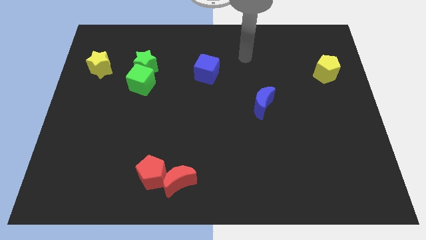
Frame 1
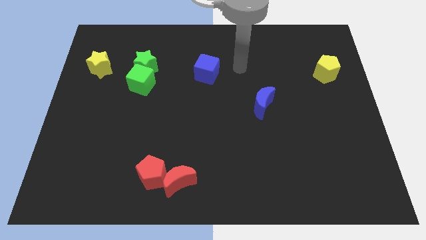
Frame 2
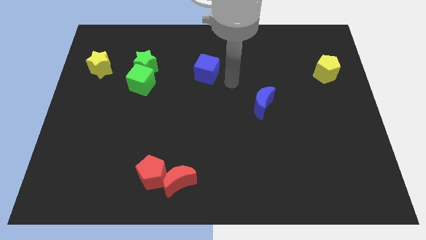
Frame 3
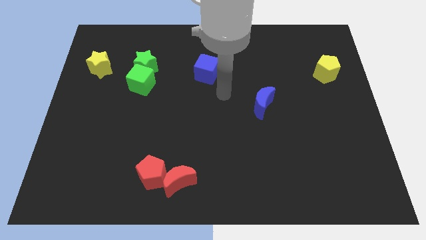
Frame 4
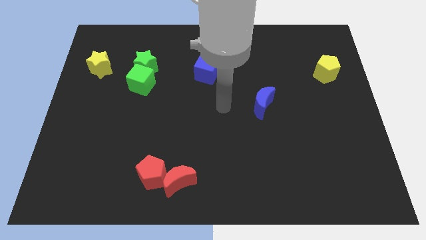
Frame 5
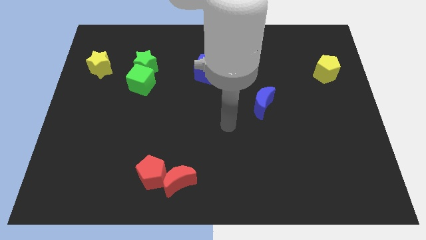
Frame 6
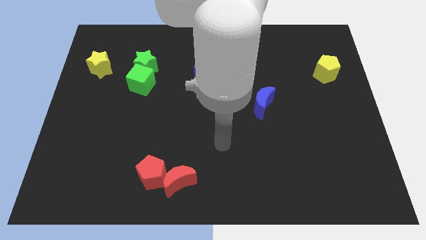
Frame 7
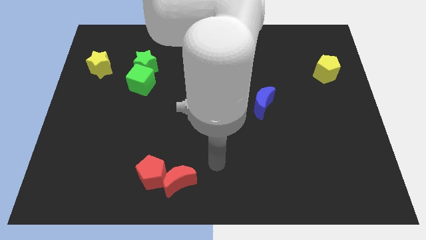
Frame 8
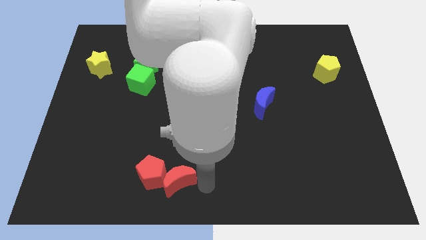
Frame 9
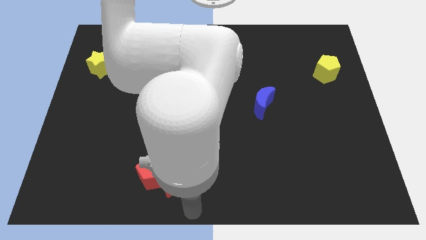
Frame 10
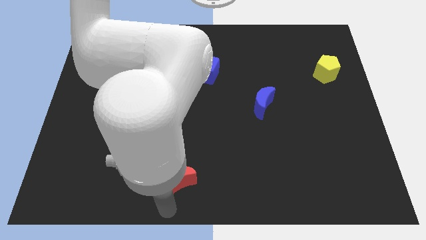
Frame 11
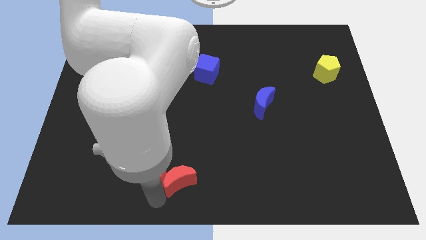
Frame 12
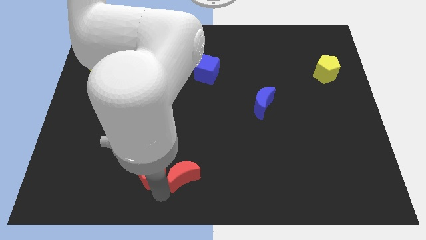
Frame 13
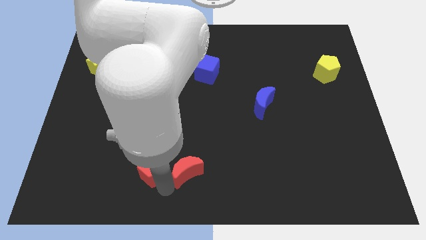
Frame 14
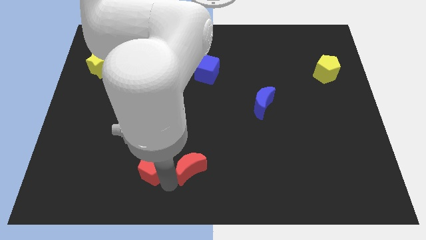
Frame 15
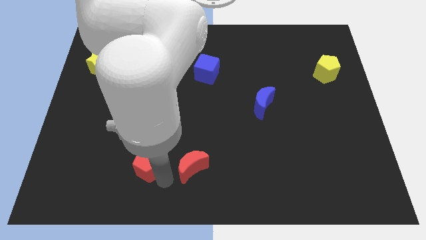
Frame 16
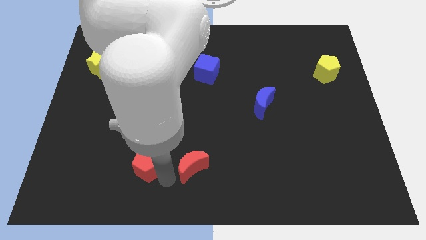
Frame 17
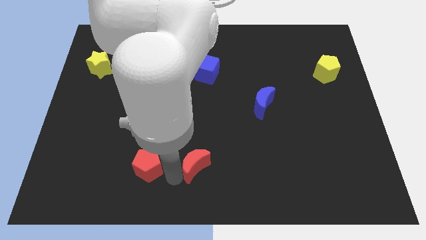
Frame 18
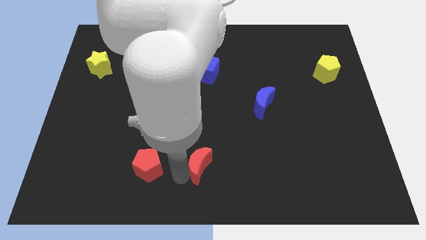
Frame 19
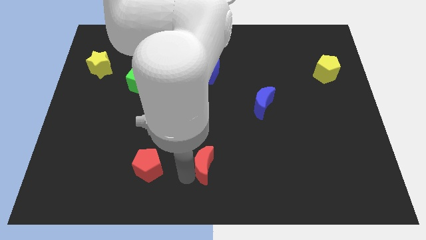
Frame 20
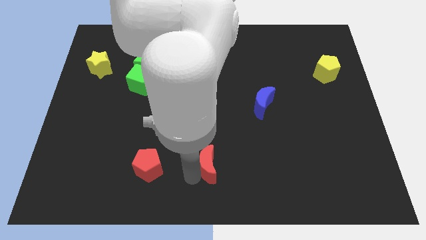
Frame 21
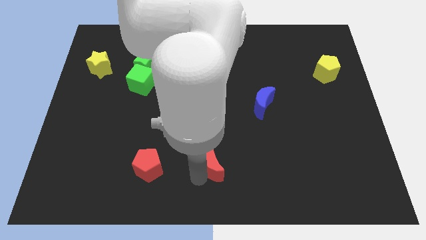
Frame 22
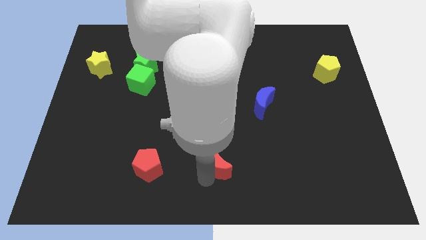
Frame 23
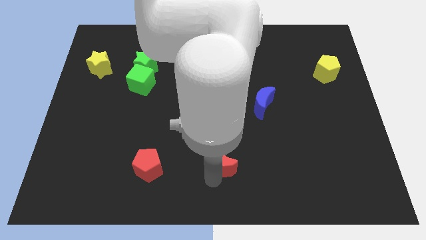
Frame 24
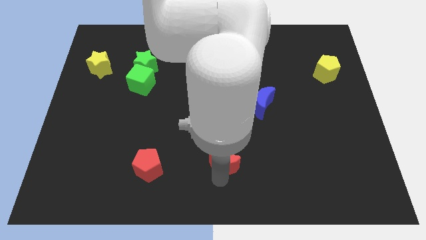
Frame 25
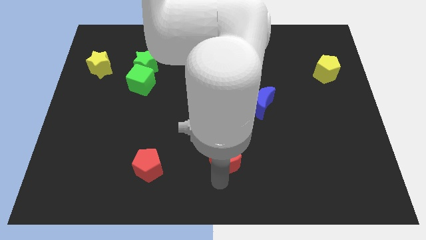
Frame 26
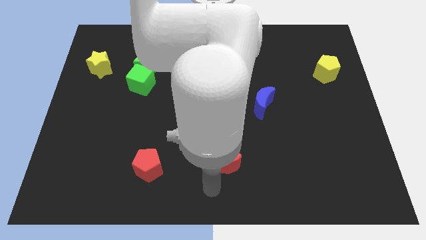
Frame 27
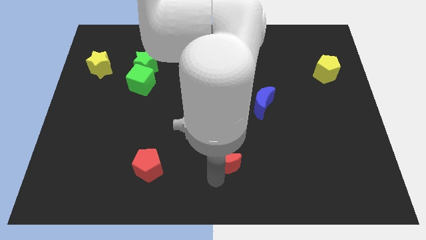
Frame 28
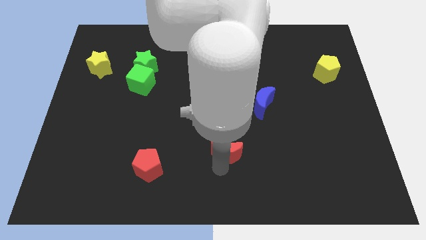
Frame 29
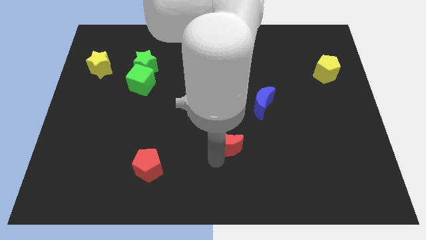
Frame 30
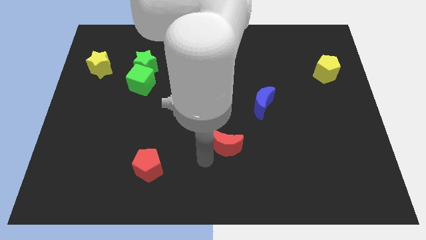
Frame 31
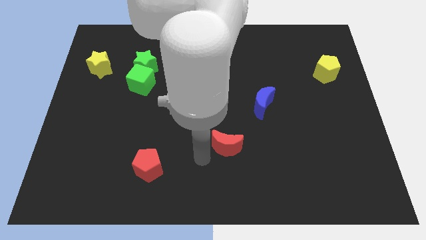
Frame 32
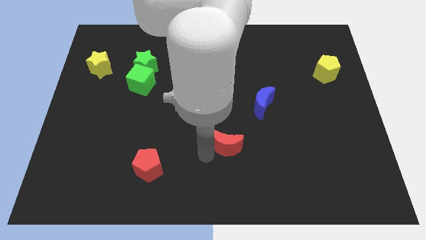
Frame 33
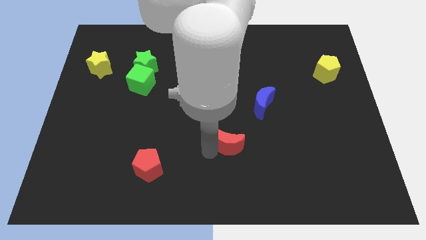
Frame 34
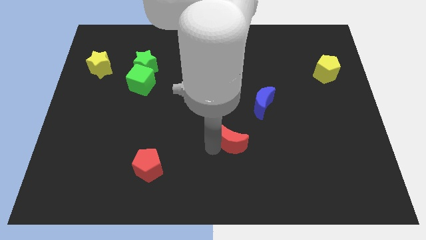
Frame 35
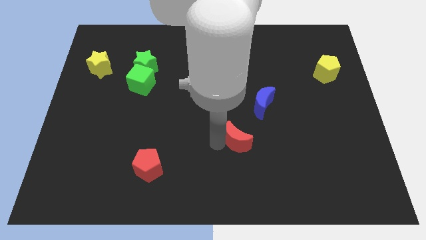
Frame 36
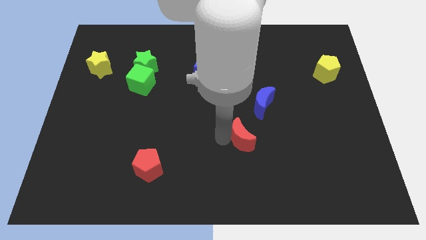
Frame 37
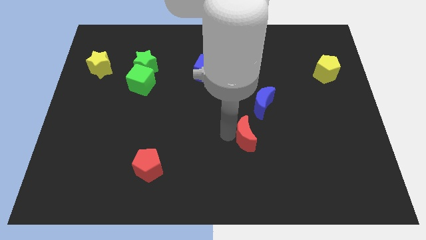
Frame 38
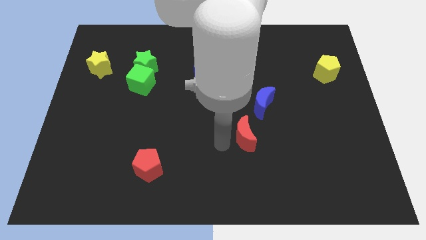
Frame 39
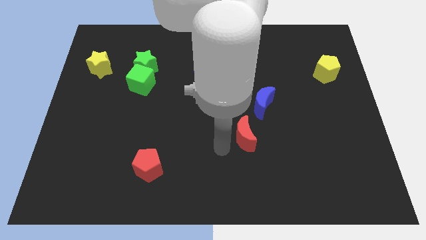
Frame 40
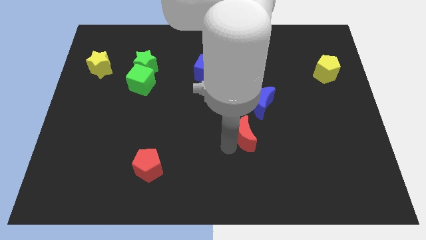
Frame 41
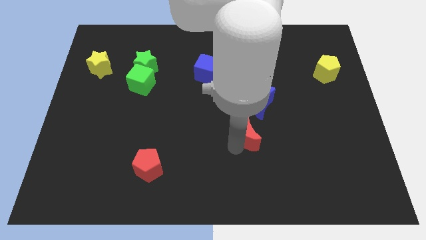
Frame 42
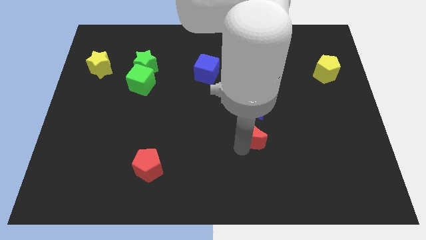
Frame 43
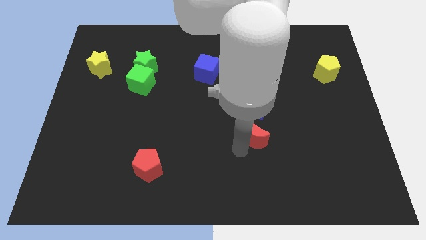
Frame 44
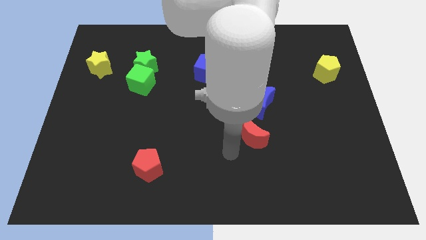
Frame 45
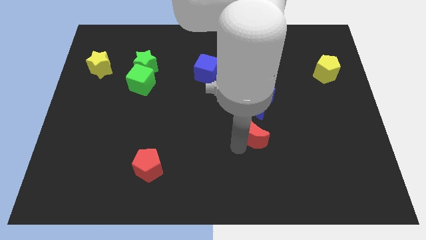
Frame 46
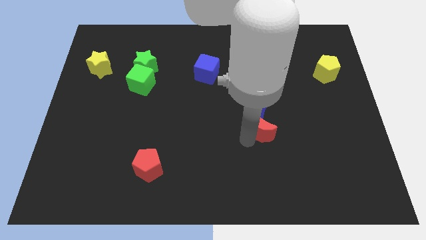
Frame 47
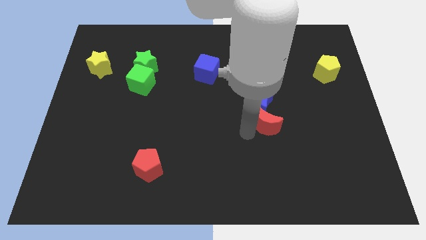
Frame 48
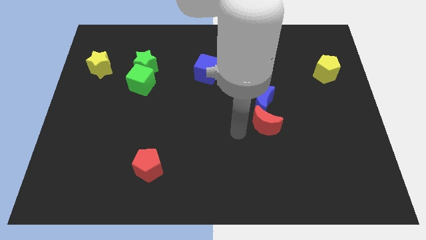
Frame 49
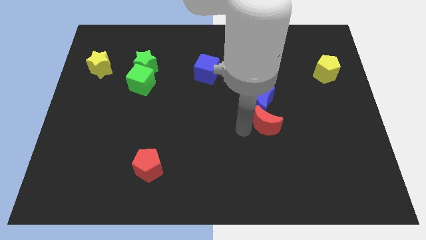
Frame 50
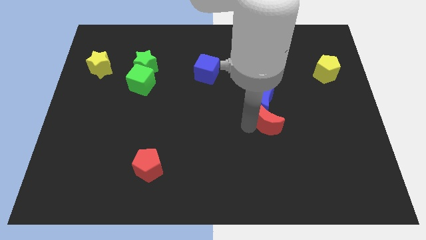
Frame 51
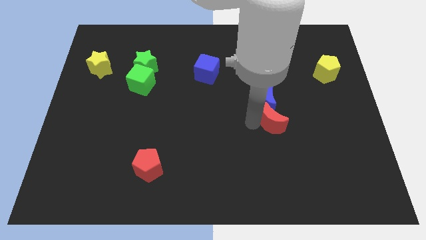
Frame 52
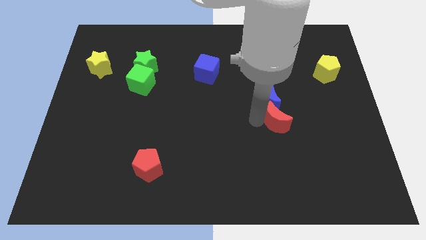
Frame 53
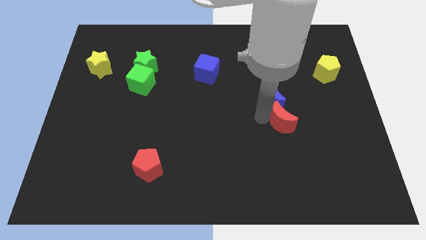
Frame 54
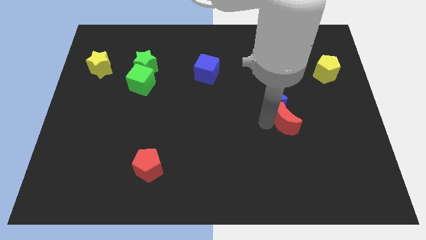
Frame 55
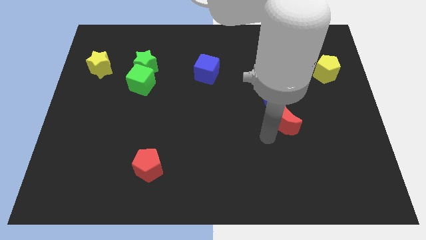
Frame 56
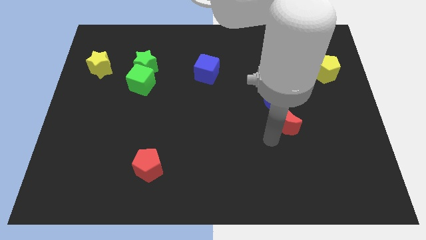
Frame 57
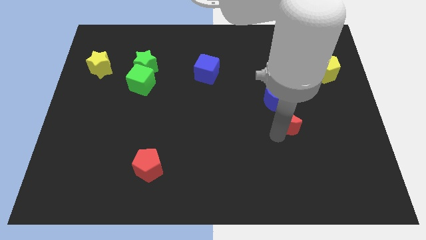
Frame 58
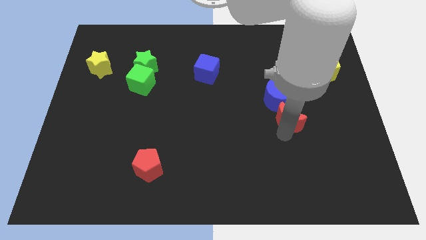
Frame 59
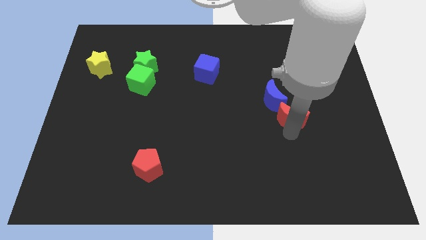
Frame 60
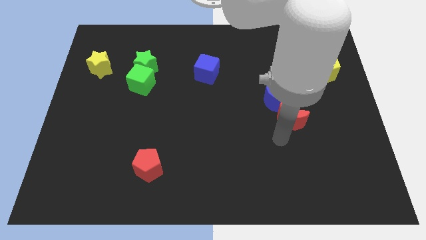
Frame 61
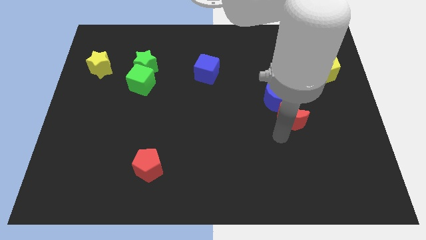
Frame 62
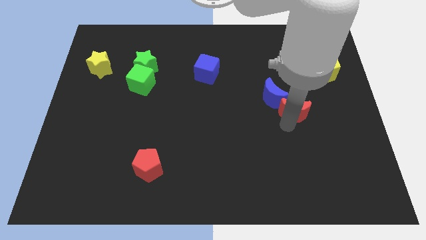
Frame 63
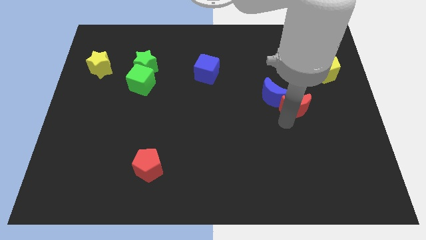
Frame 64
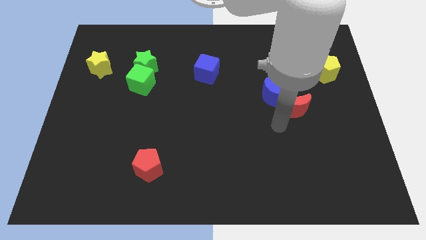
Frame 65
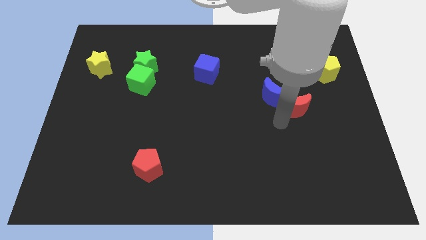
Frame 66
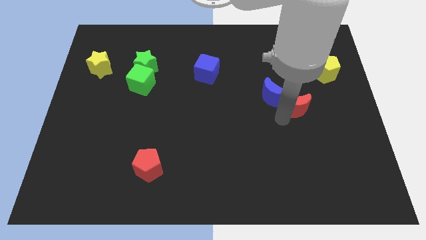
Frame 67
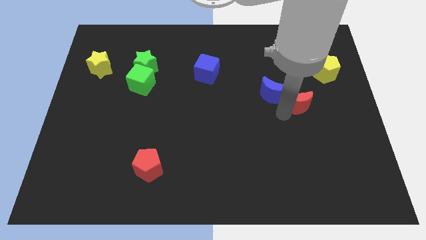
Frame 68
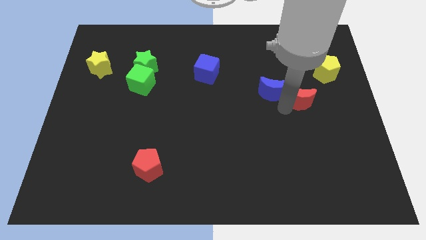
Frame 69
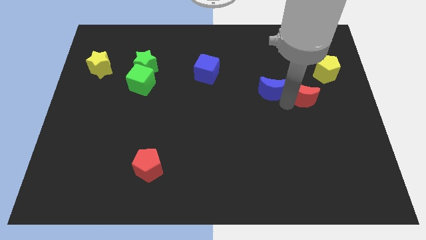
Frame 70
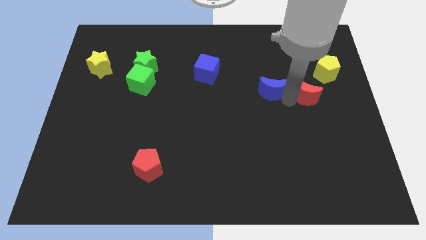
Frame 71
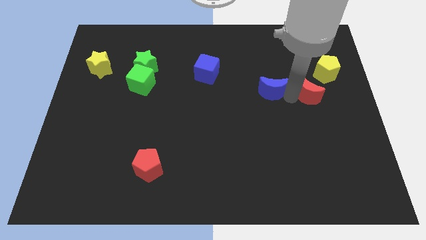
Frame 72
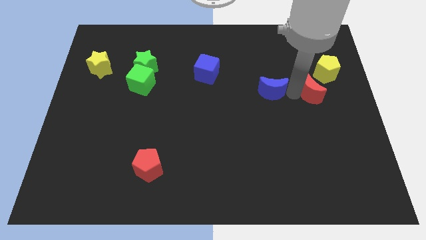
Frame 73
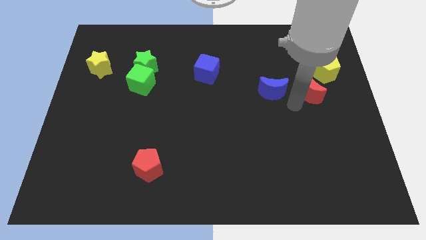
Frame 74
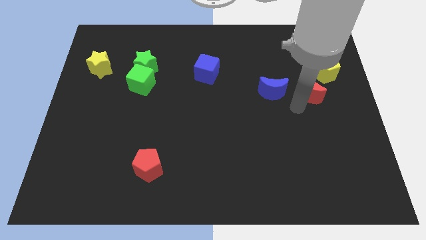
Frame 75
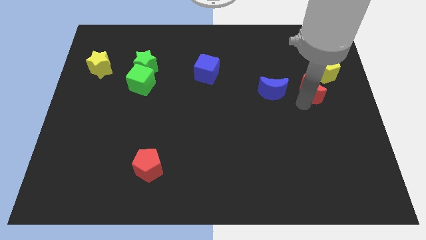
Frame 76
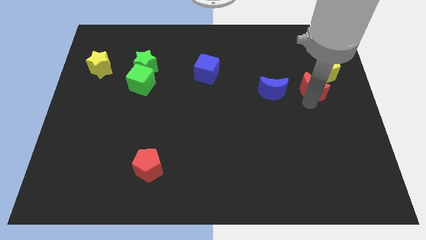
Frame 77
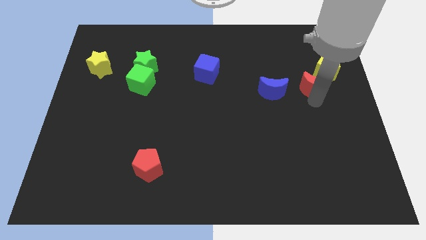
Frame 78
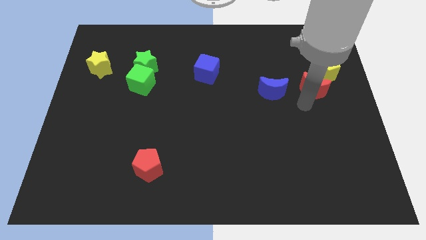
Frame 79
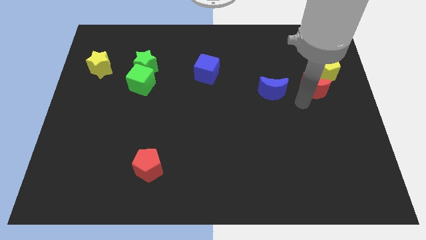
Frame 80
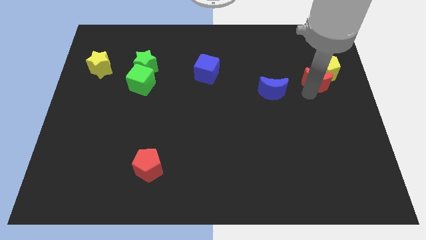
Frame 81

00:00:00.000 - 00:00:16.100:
slide the red moon next to the yellow pentagon
